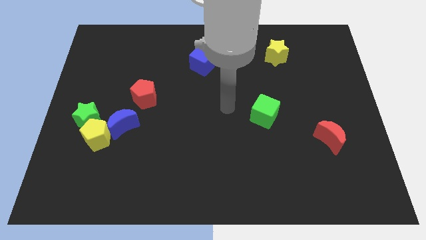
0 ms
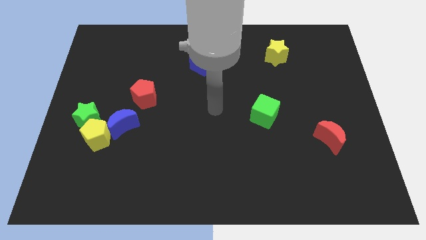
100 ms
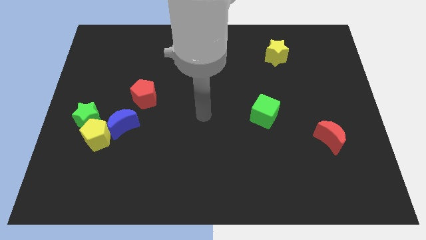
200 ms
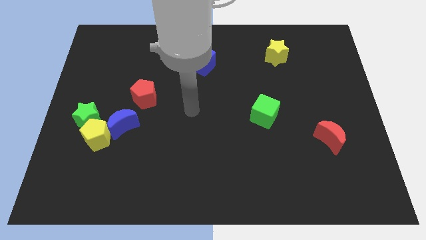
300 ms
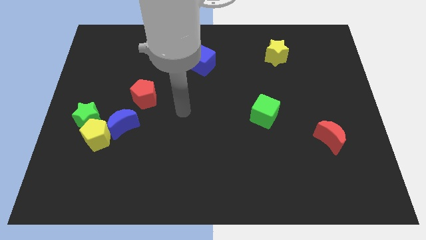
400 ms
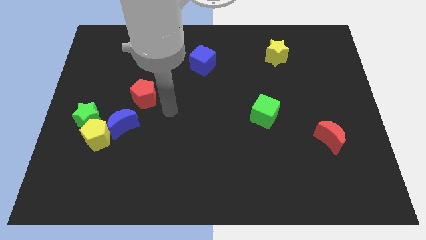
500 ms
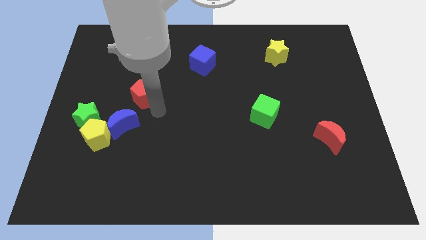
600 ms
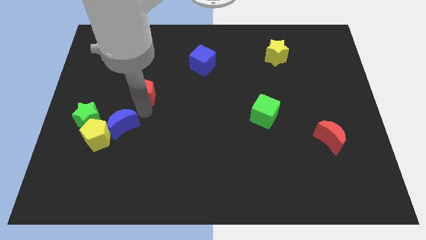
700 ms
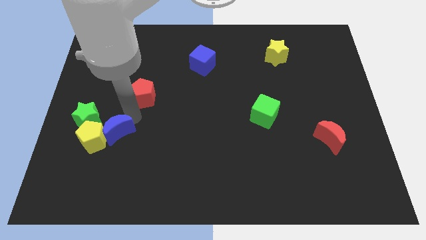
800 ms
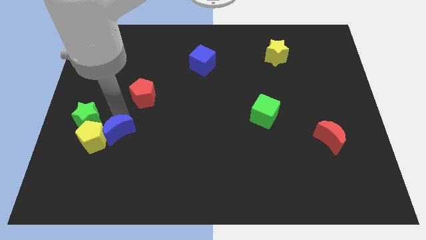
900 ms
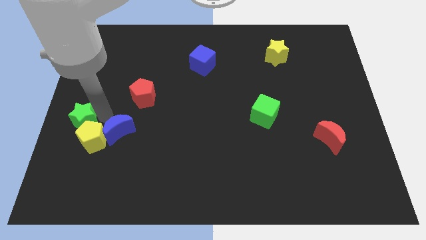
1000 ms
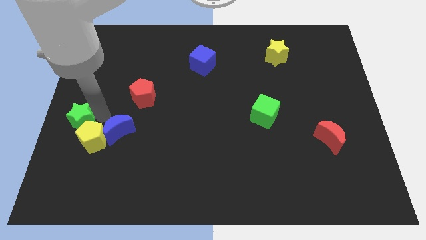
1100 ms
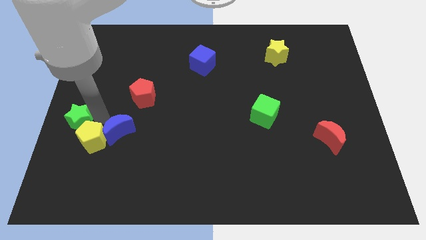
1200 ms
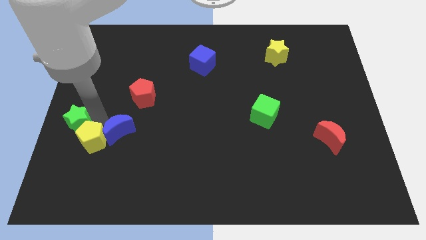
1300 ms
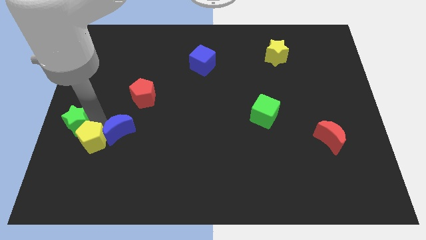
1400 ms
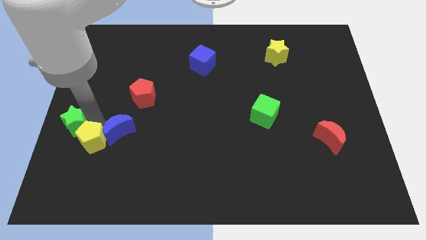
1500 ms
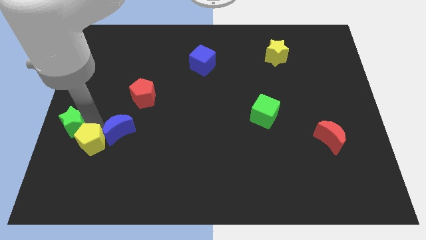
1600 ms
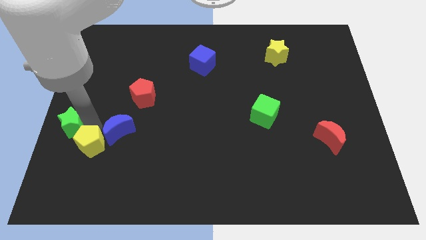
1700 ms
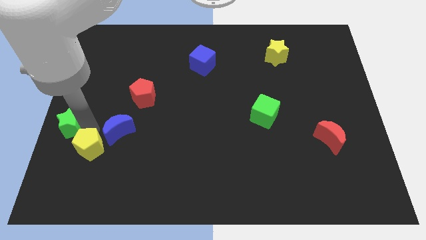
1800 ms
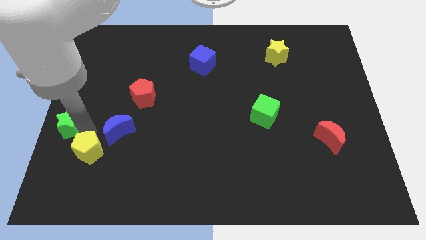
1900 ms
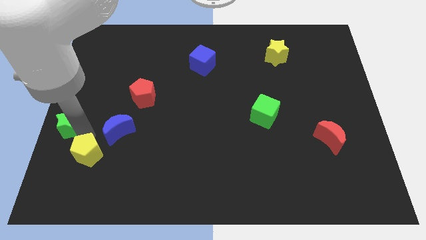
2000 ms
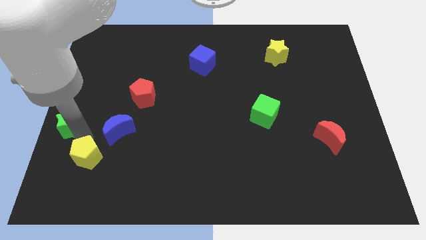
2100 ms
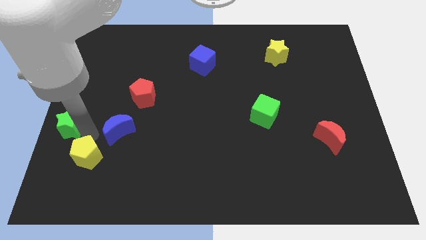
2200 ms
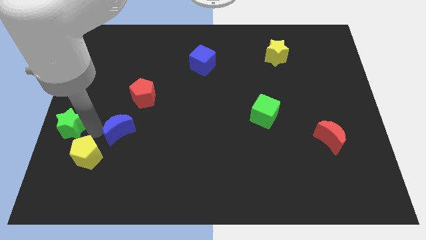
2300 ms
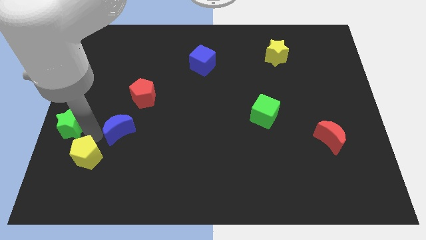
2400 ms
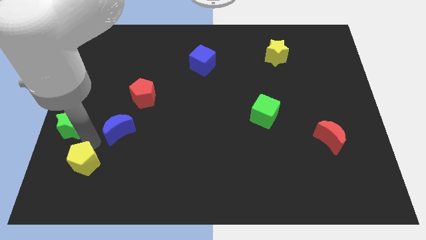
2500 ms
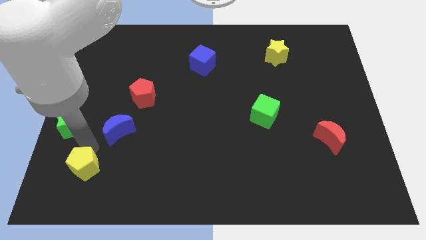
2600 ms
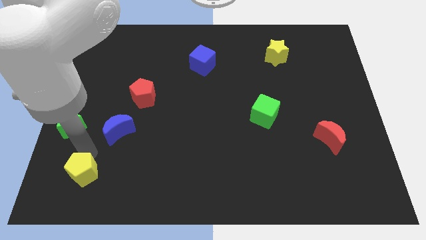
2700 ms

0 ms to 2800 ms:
move the yellow pentagon away from the green star and blue moon

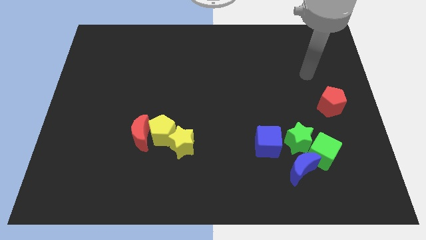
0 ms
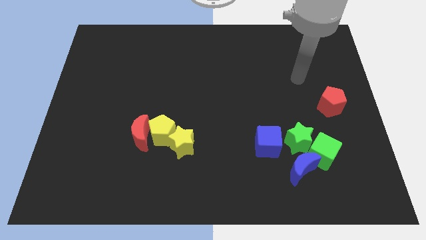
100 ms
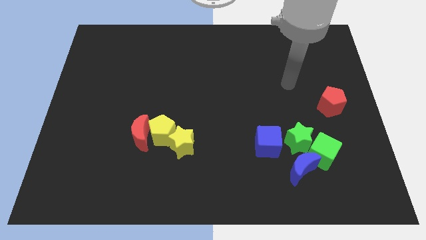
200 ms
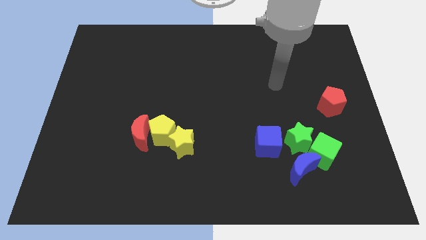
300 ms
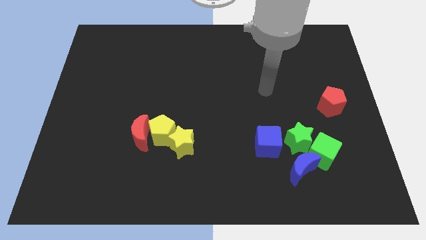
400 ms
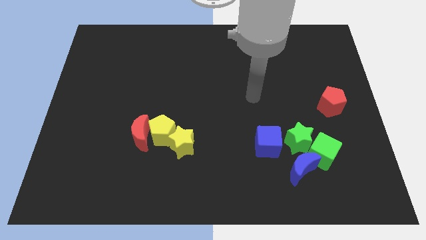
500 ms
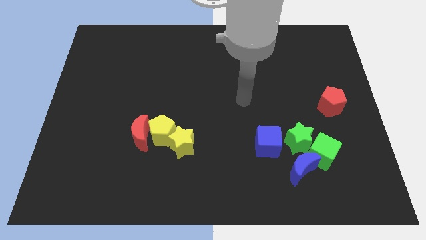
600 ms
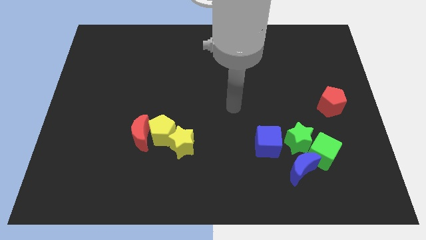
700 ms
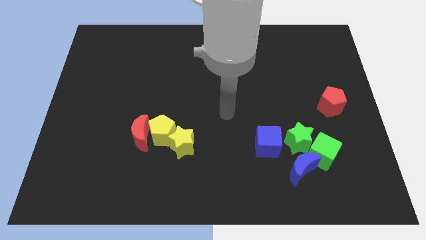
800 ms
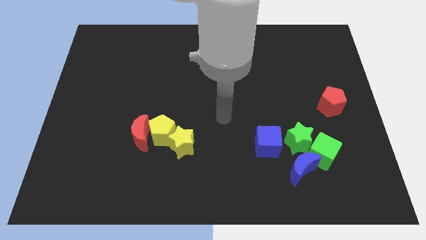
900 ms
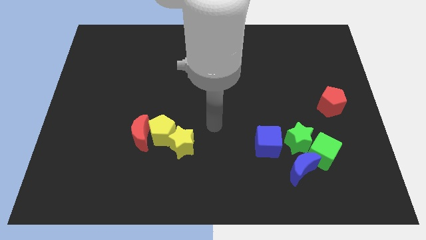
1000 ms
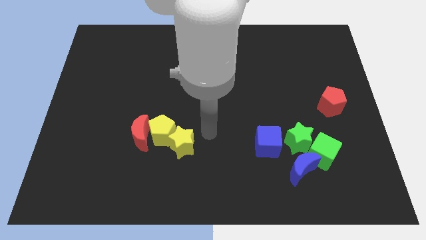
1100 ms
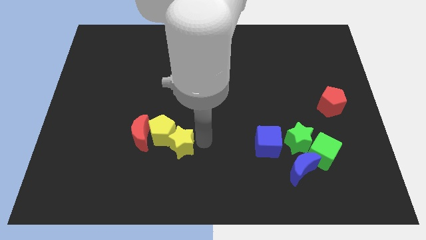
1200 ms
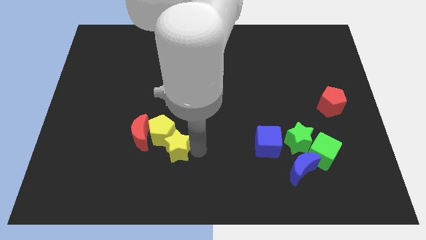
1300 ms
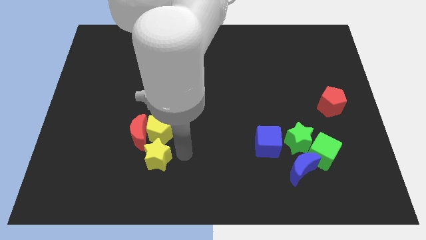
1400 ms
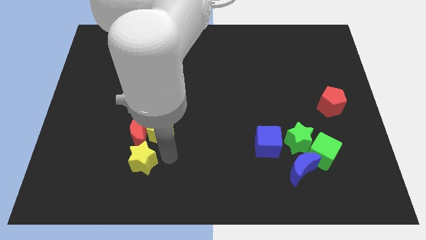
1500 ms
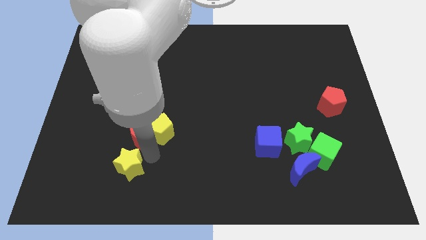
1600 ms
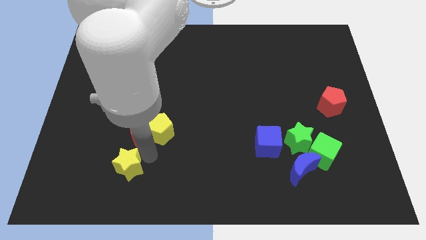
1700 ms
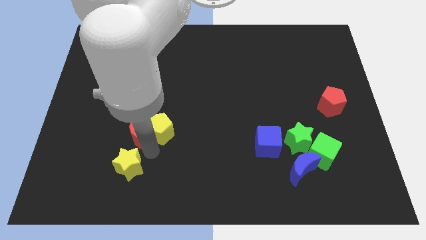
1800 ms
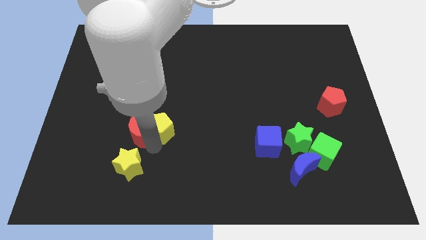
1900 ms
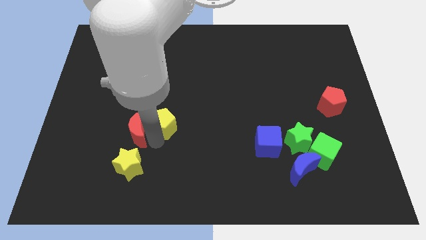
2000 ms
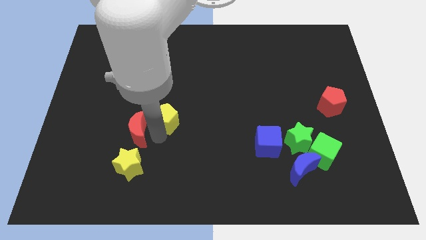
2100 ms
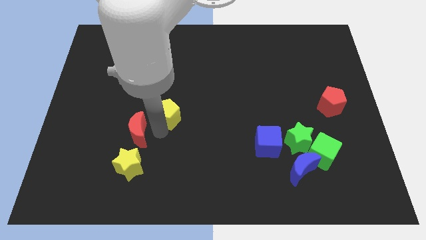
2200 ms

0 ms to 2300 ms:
pull the yellow pentagon apart from the red moon and yellow star

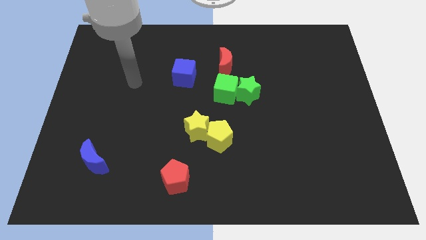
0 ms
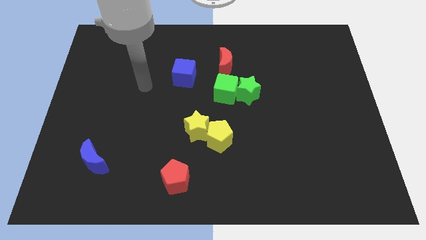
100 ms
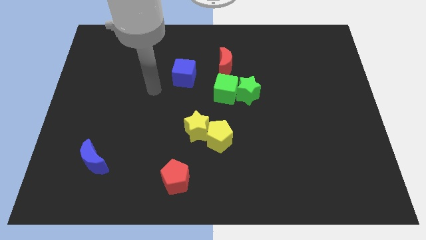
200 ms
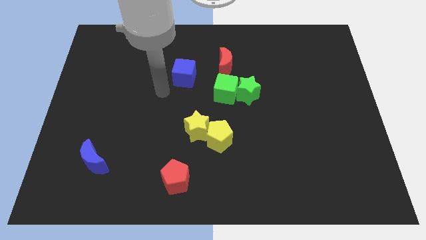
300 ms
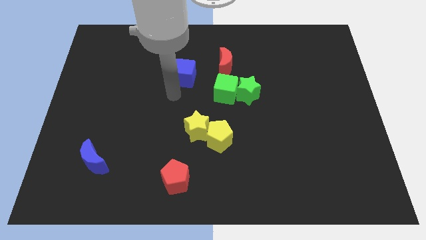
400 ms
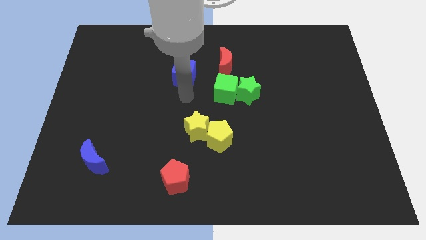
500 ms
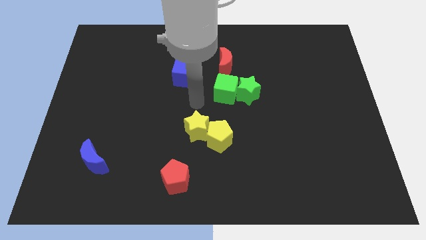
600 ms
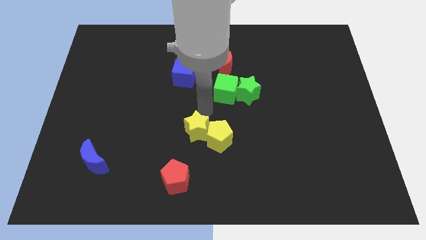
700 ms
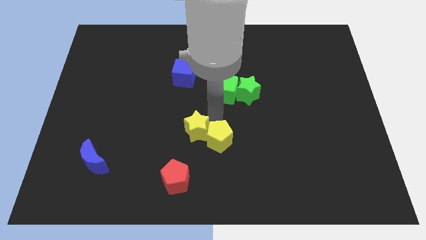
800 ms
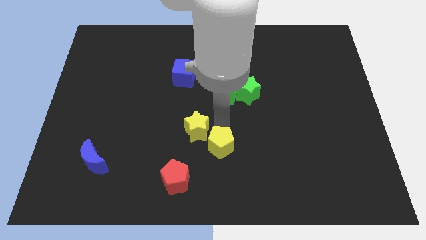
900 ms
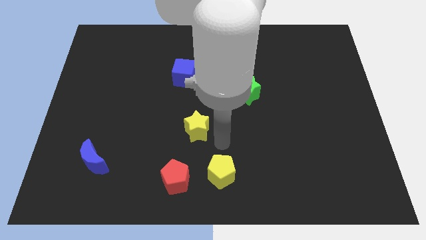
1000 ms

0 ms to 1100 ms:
pull the yellow star apart from the yellow pentagon

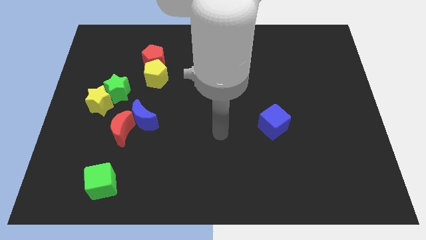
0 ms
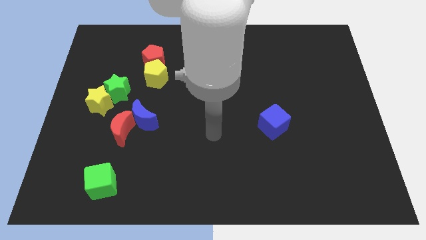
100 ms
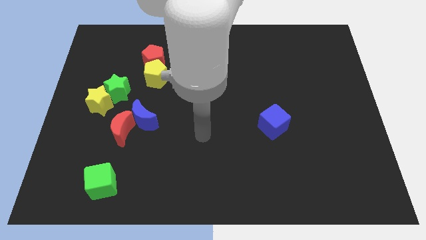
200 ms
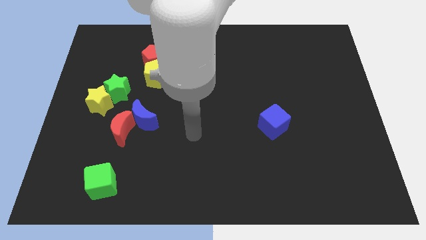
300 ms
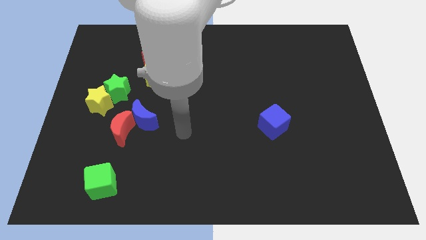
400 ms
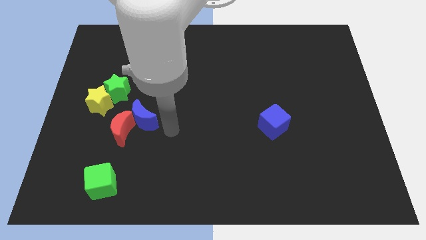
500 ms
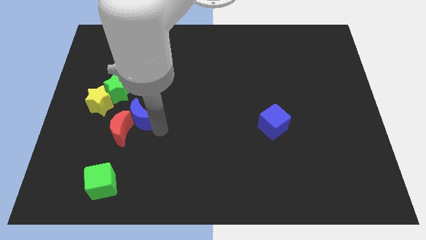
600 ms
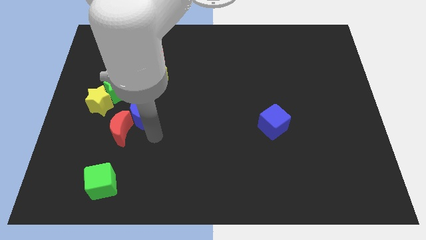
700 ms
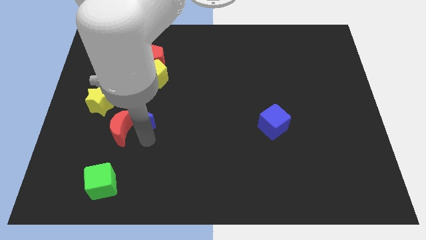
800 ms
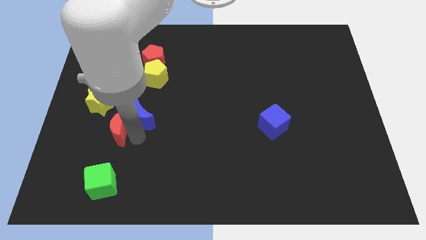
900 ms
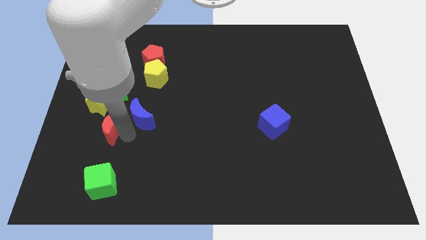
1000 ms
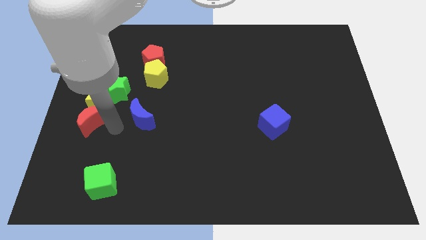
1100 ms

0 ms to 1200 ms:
move the blue moon away from the red moon

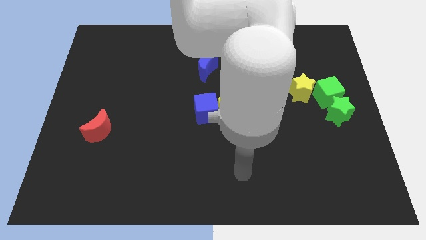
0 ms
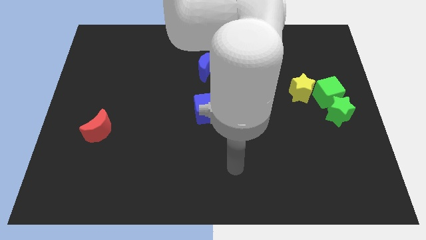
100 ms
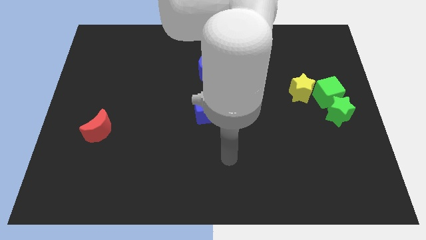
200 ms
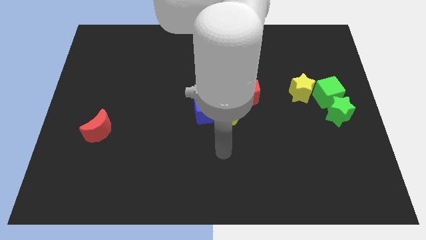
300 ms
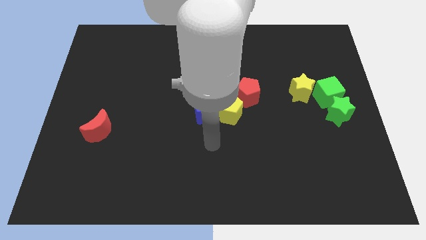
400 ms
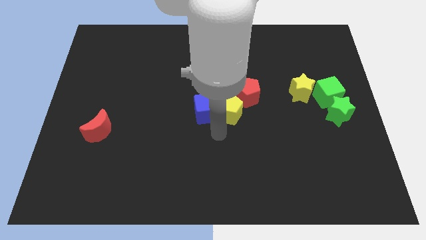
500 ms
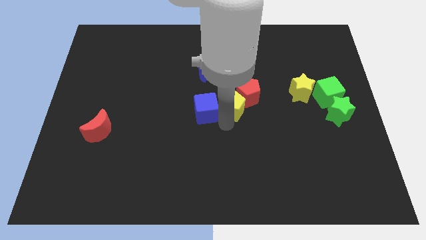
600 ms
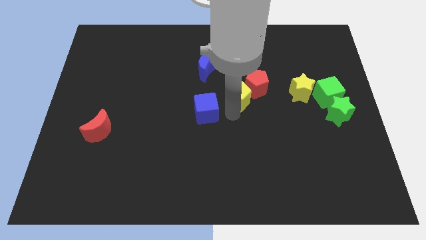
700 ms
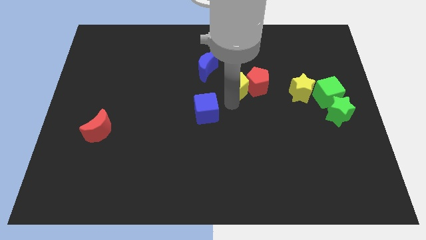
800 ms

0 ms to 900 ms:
move the blue cube away from the yellow pentagon

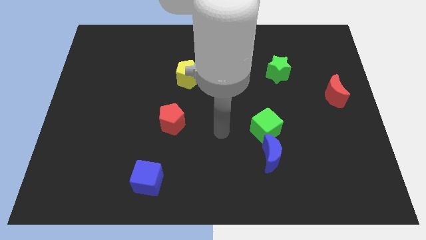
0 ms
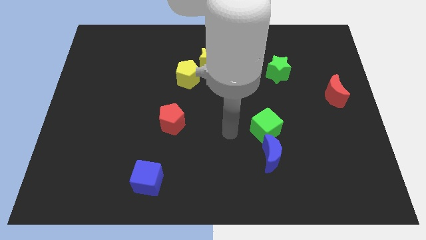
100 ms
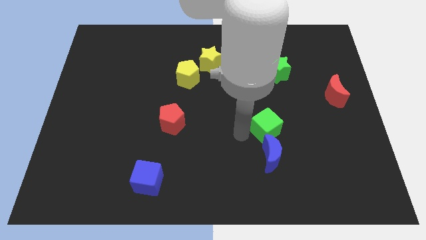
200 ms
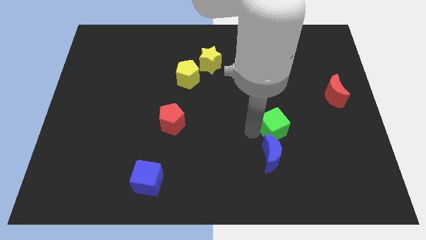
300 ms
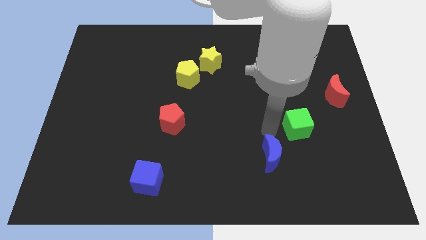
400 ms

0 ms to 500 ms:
separate the blue moon from the green cube

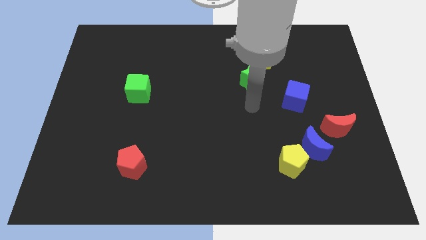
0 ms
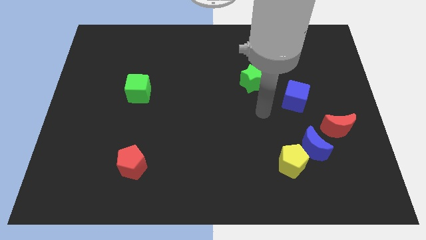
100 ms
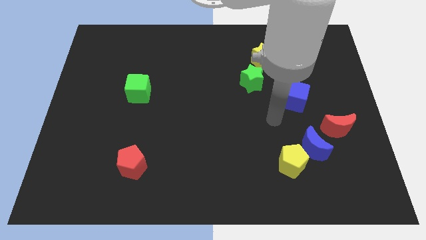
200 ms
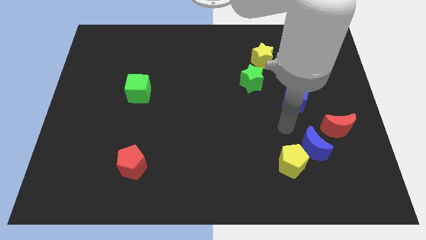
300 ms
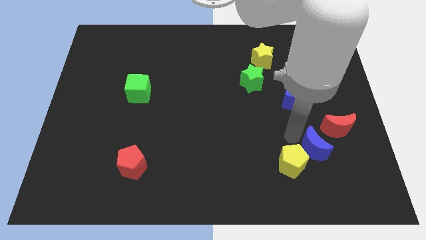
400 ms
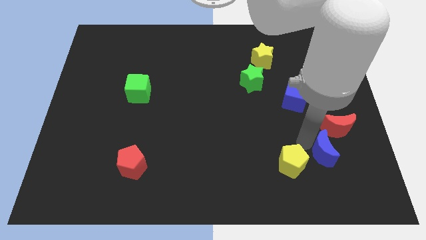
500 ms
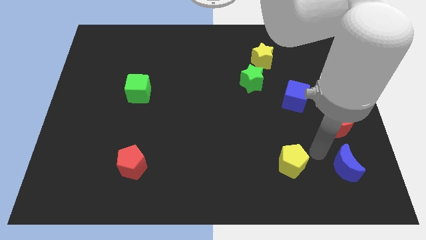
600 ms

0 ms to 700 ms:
pull the yellow pentagon apart from the blue moon
